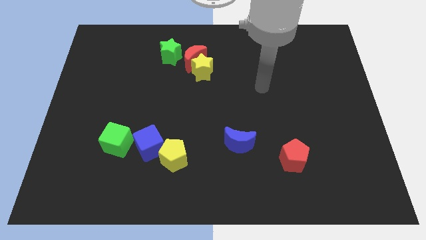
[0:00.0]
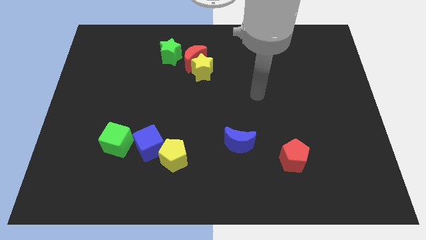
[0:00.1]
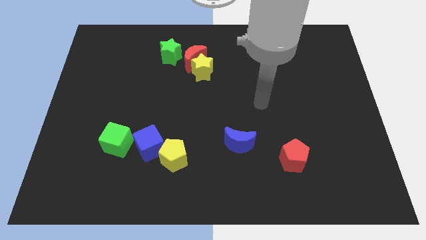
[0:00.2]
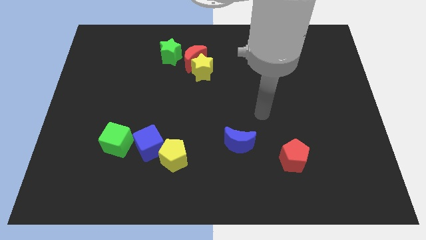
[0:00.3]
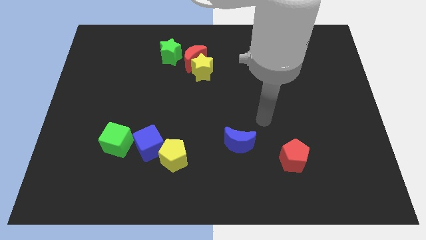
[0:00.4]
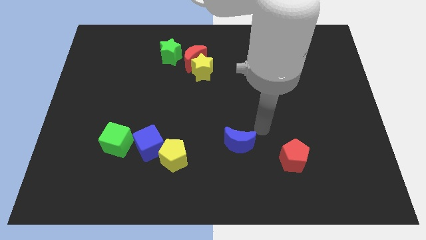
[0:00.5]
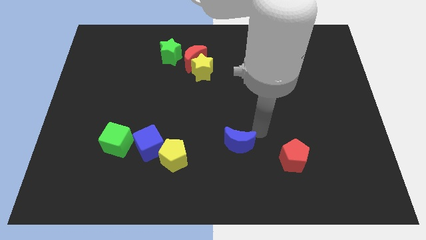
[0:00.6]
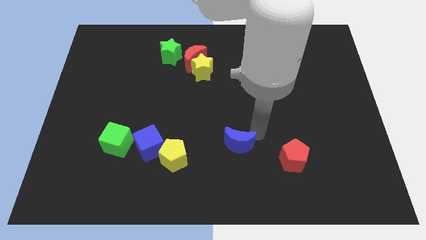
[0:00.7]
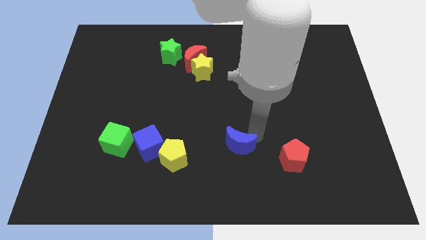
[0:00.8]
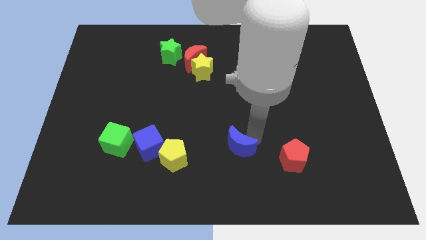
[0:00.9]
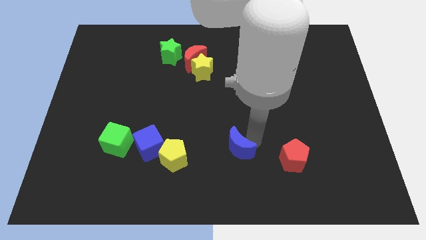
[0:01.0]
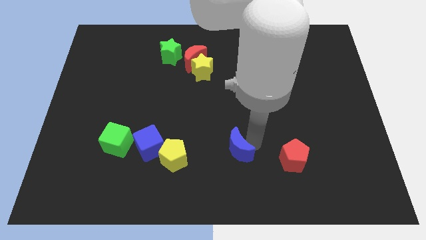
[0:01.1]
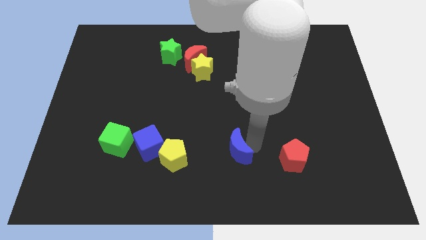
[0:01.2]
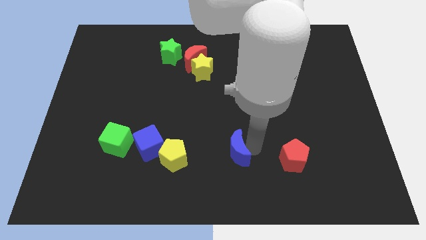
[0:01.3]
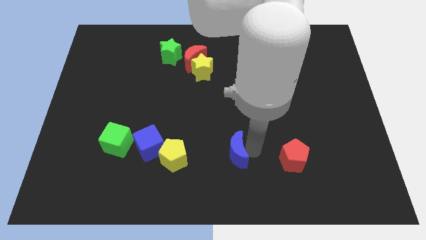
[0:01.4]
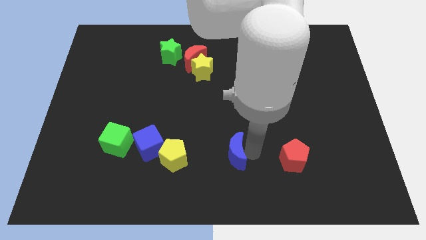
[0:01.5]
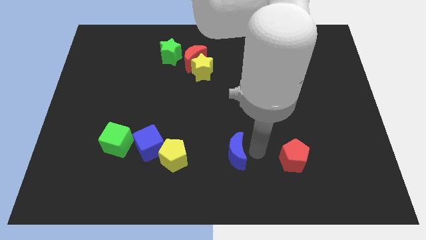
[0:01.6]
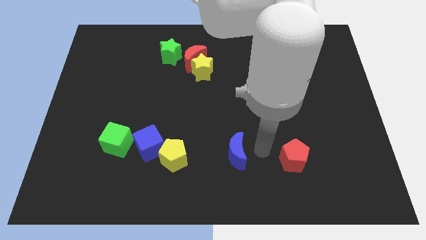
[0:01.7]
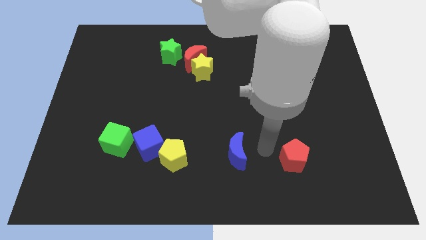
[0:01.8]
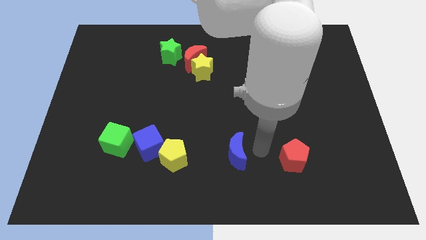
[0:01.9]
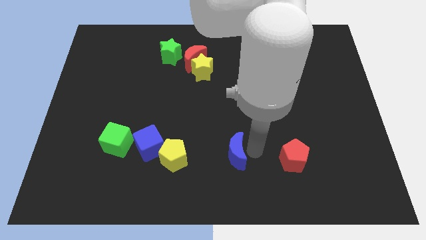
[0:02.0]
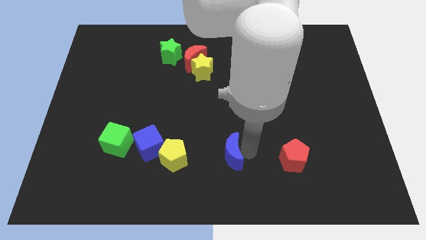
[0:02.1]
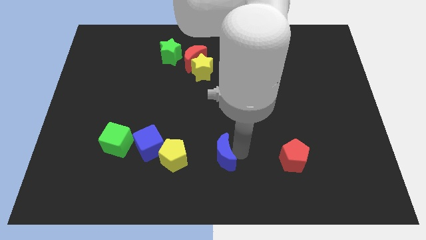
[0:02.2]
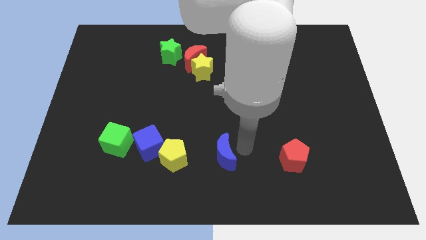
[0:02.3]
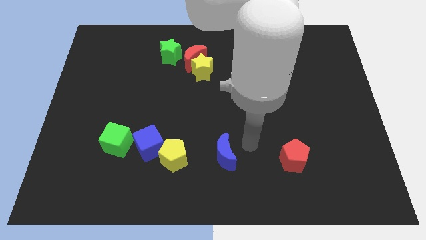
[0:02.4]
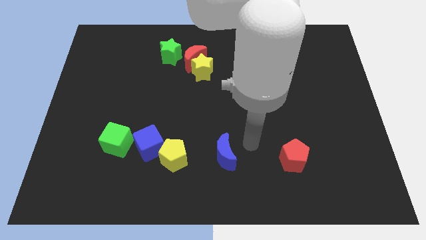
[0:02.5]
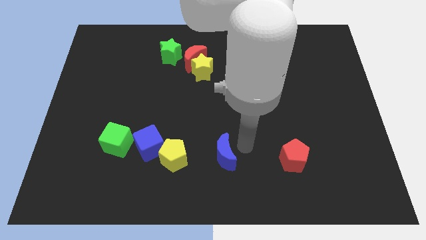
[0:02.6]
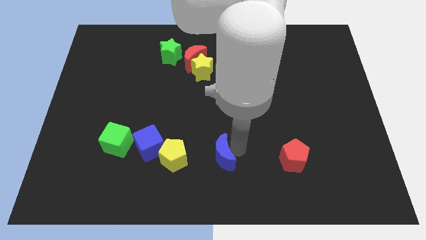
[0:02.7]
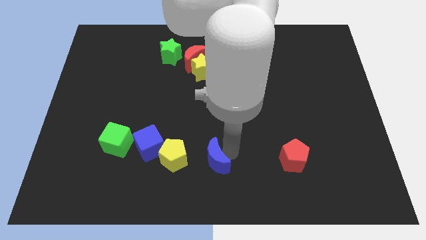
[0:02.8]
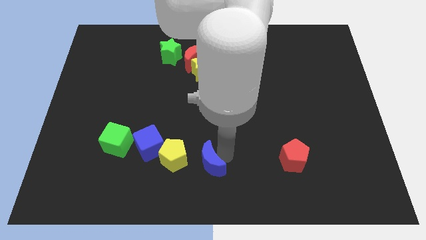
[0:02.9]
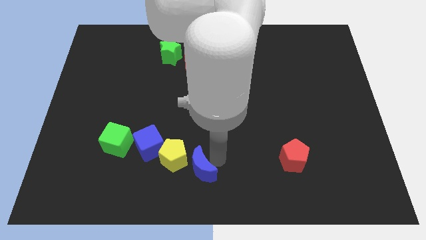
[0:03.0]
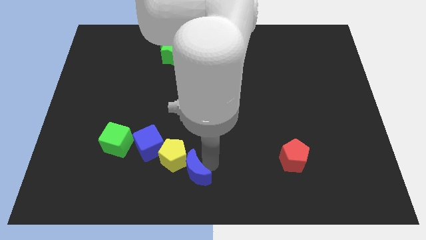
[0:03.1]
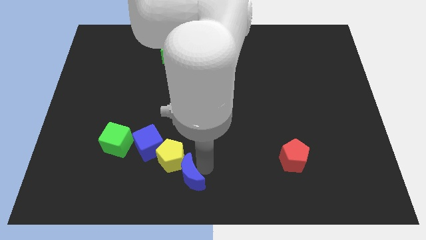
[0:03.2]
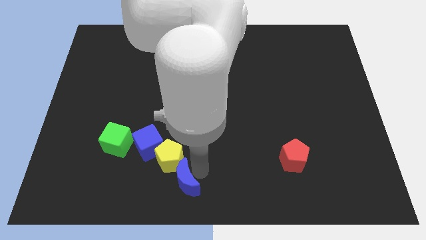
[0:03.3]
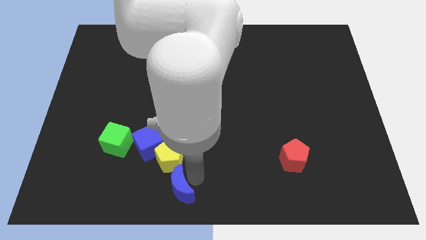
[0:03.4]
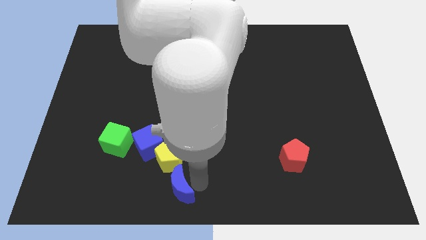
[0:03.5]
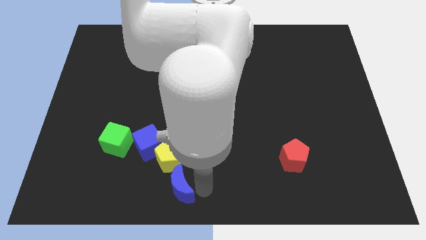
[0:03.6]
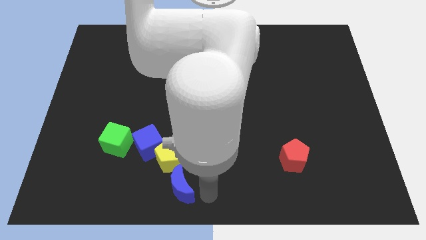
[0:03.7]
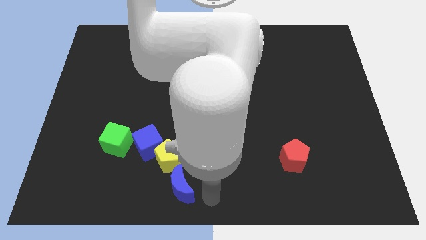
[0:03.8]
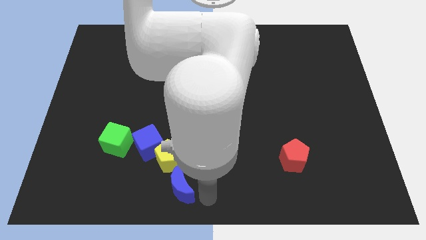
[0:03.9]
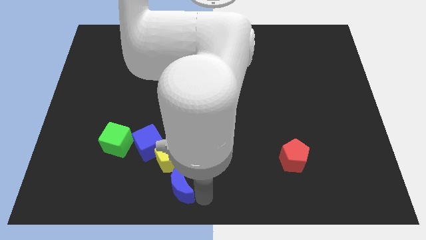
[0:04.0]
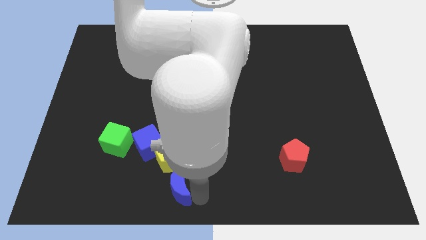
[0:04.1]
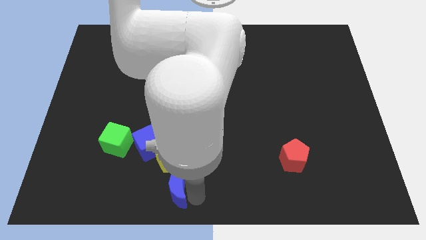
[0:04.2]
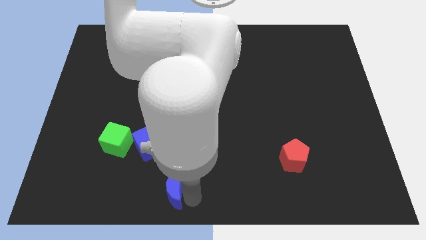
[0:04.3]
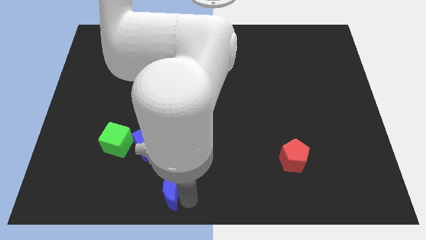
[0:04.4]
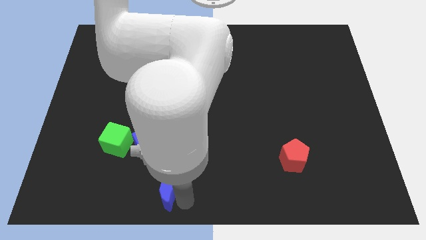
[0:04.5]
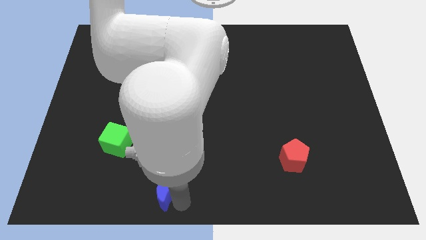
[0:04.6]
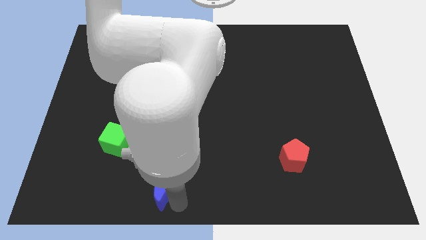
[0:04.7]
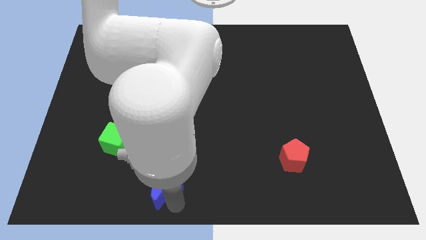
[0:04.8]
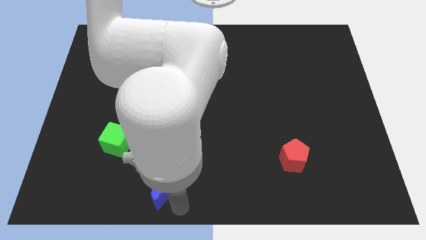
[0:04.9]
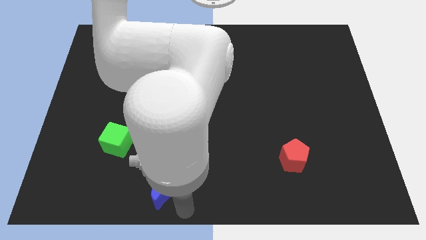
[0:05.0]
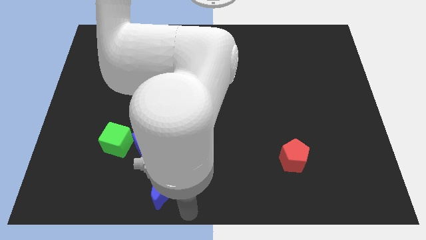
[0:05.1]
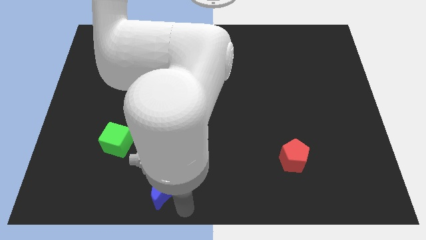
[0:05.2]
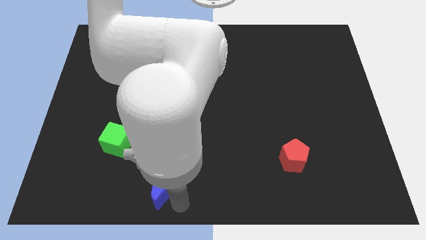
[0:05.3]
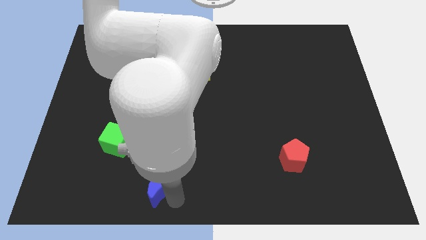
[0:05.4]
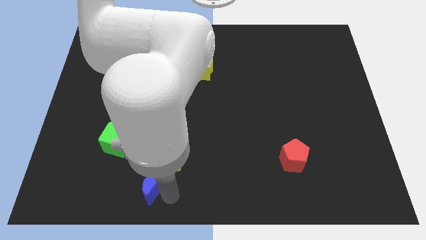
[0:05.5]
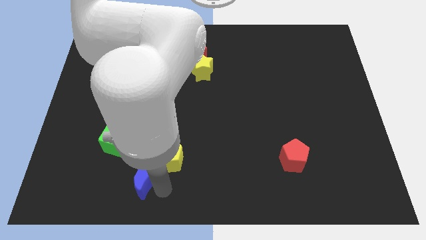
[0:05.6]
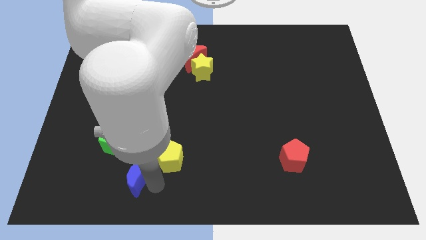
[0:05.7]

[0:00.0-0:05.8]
put the blue moon to the bottom left side of the blue cube

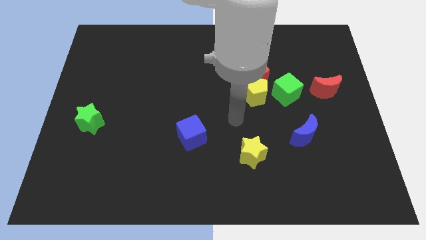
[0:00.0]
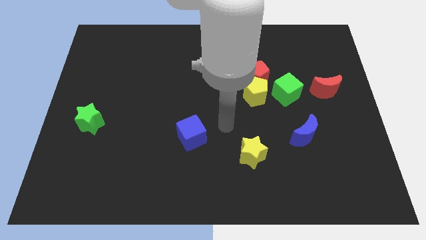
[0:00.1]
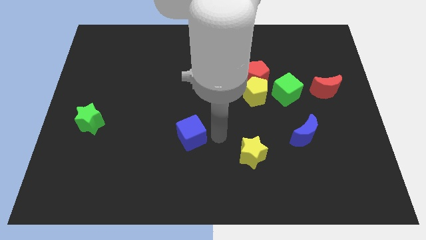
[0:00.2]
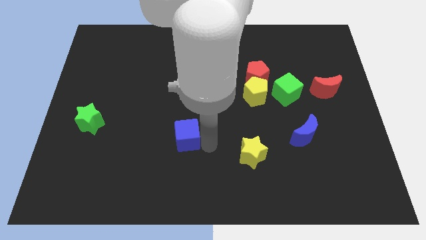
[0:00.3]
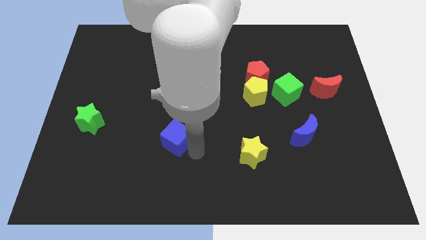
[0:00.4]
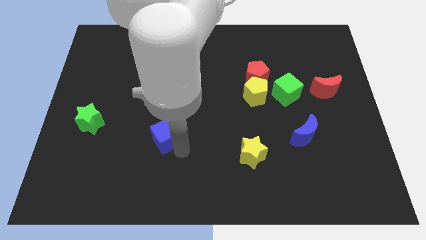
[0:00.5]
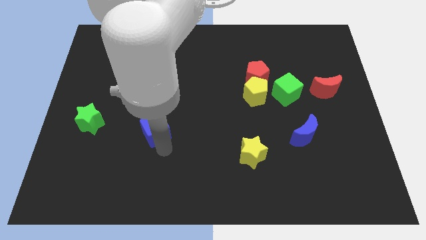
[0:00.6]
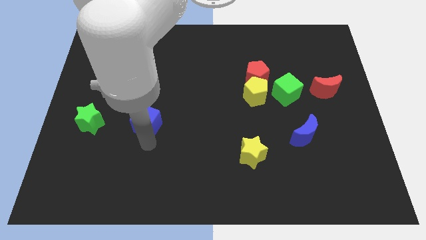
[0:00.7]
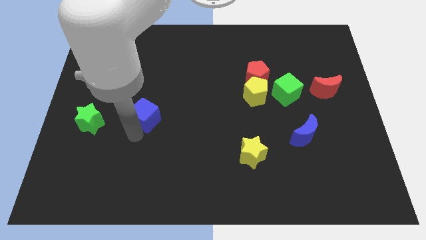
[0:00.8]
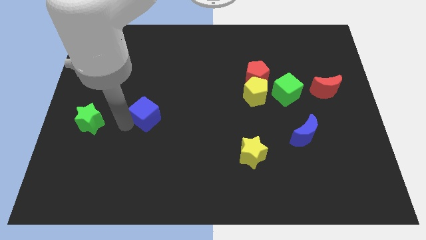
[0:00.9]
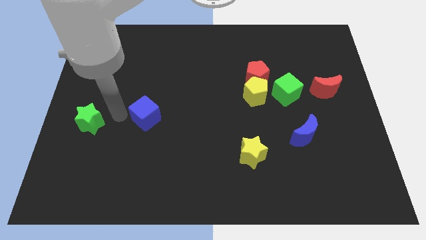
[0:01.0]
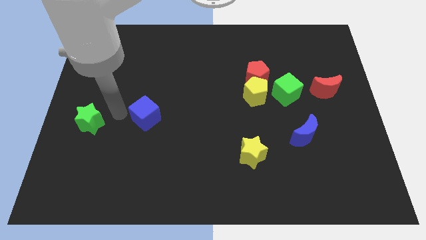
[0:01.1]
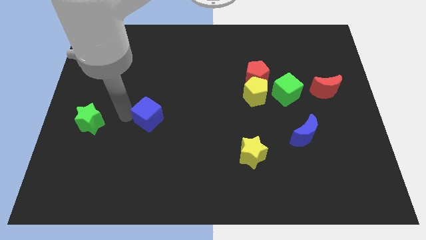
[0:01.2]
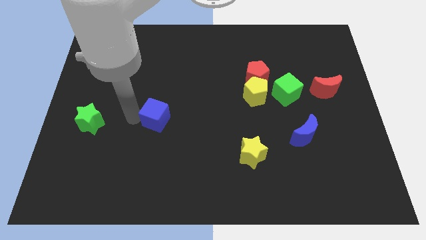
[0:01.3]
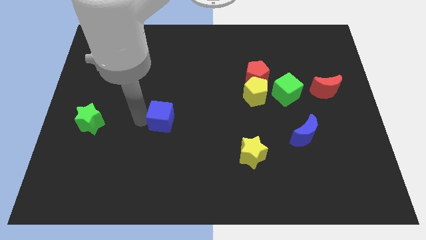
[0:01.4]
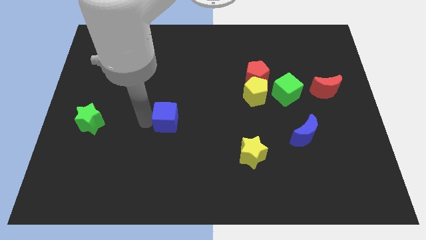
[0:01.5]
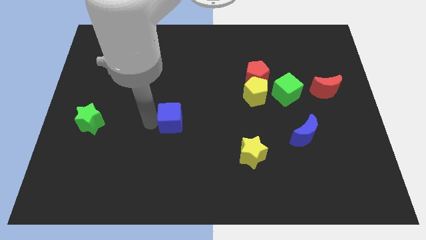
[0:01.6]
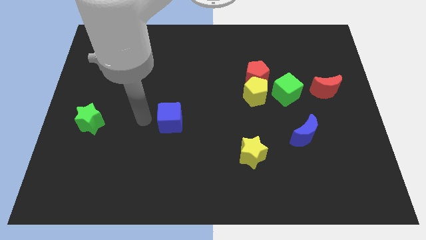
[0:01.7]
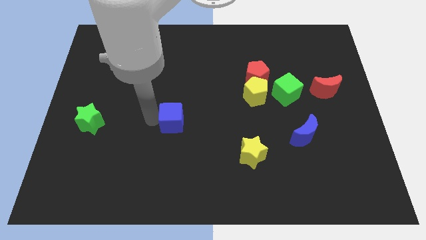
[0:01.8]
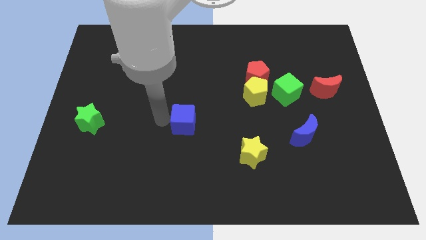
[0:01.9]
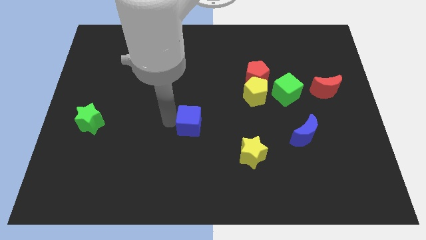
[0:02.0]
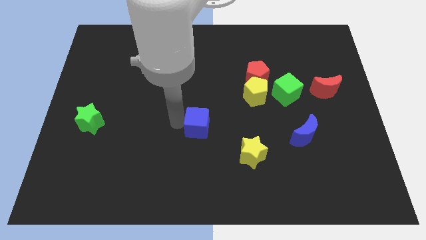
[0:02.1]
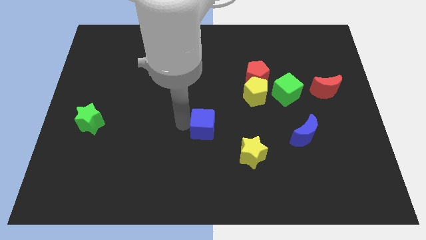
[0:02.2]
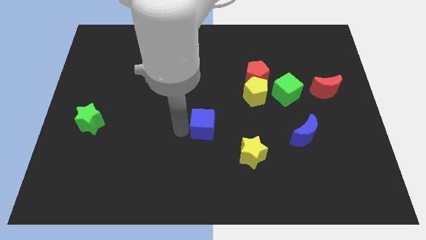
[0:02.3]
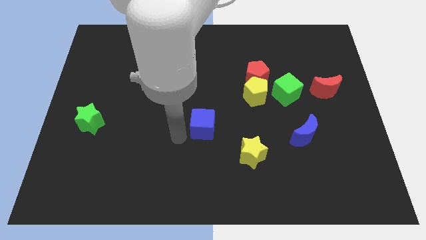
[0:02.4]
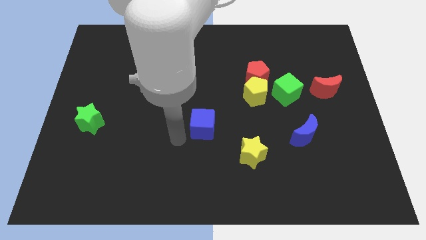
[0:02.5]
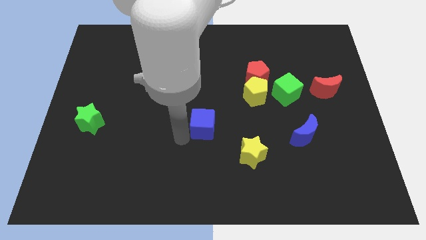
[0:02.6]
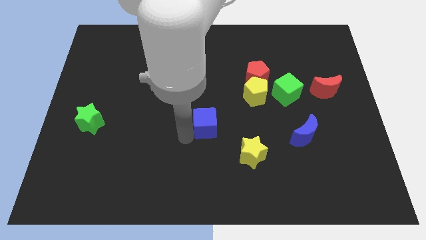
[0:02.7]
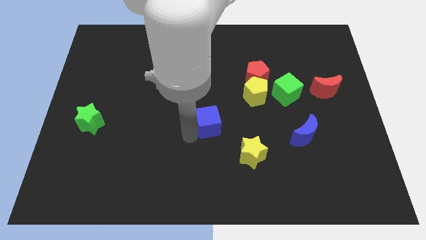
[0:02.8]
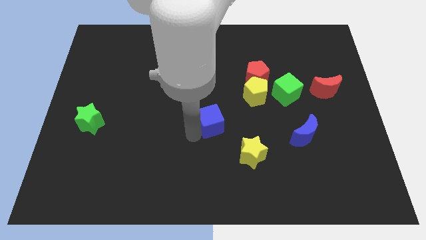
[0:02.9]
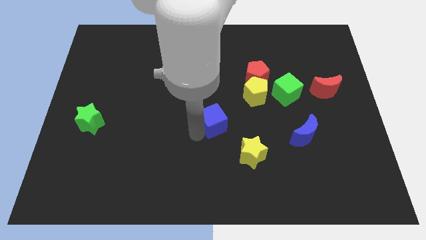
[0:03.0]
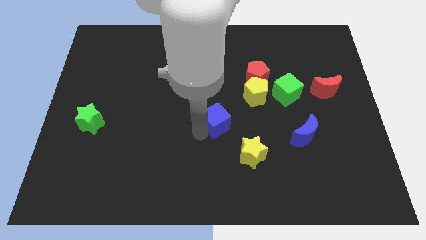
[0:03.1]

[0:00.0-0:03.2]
push the blue cube diagonally down and to the left of the yellow pentagon
